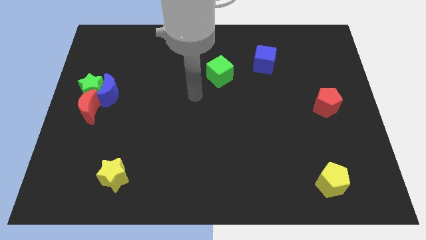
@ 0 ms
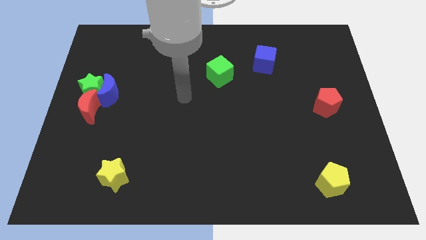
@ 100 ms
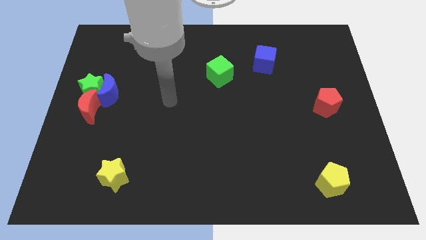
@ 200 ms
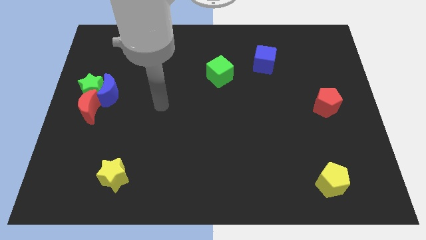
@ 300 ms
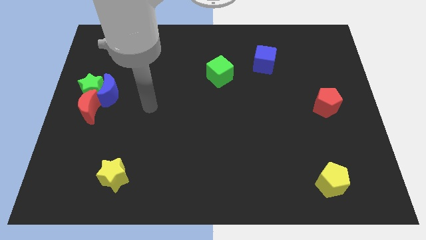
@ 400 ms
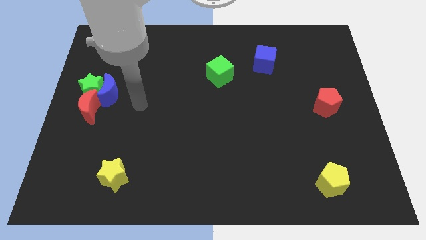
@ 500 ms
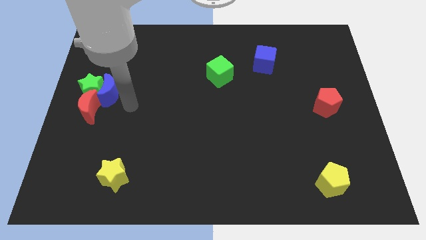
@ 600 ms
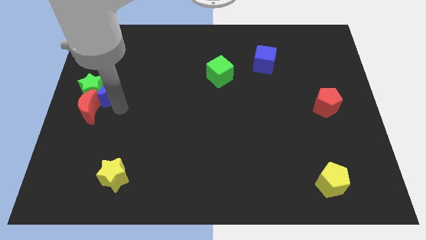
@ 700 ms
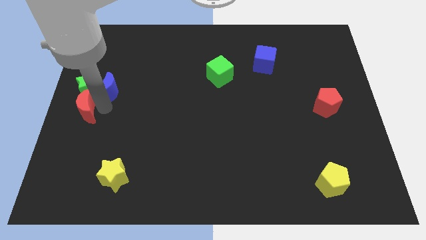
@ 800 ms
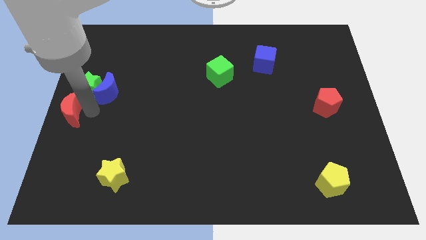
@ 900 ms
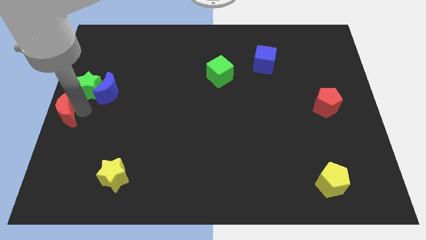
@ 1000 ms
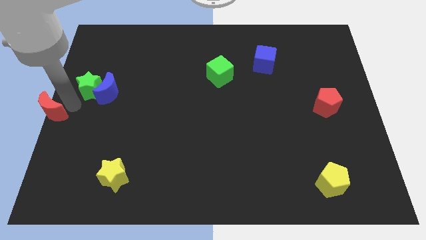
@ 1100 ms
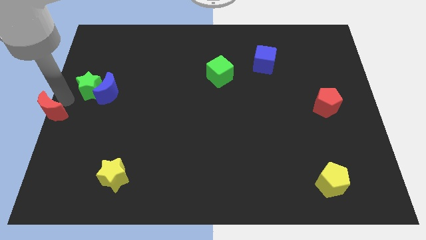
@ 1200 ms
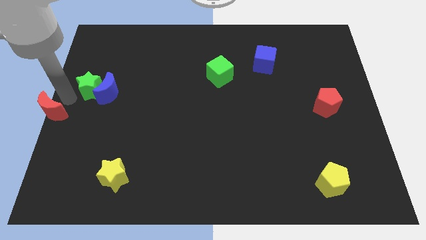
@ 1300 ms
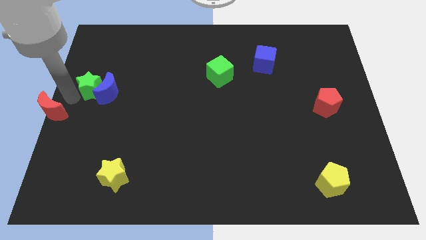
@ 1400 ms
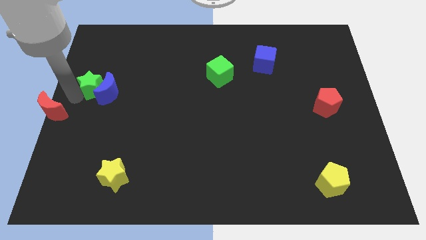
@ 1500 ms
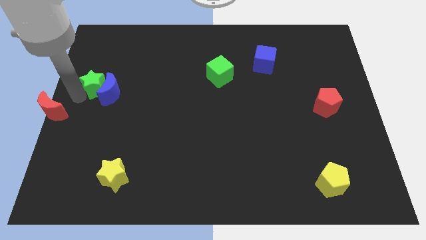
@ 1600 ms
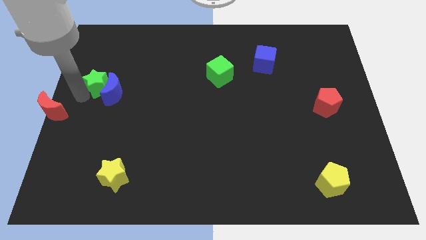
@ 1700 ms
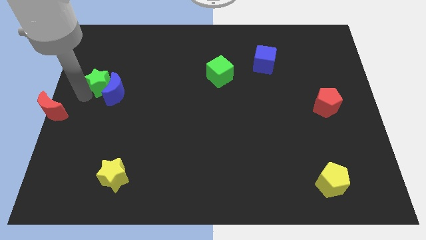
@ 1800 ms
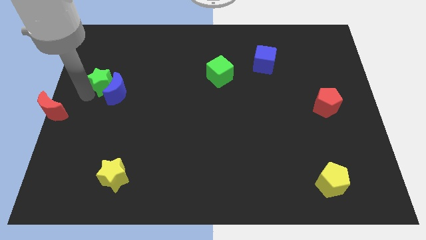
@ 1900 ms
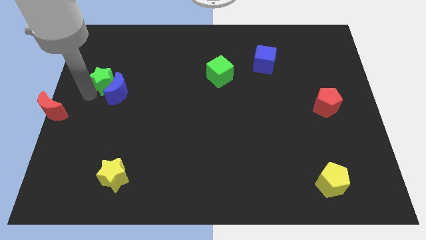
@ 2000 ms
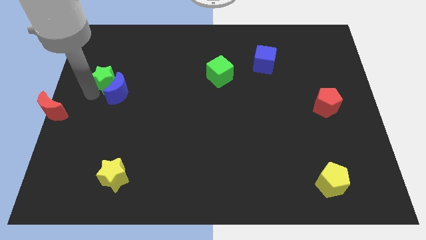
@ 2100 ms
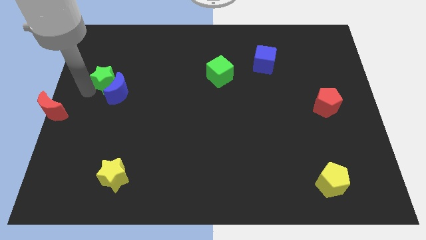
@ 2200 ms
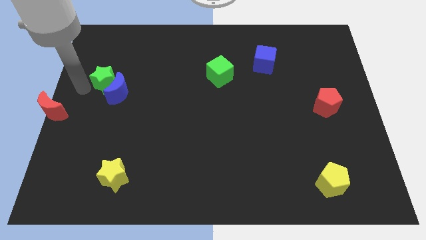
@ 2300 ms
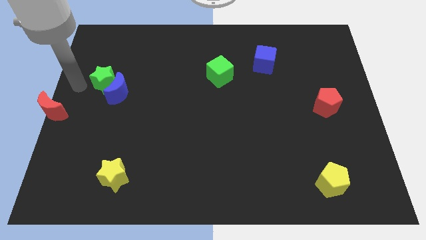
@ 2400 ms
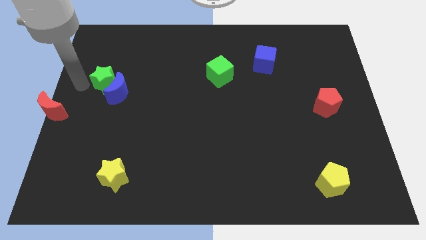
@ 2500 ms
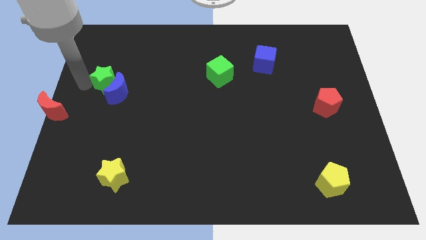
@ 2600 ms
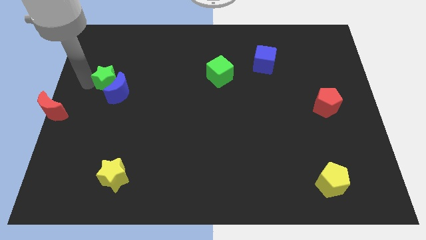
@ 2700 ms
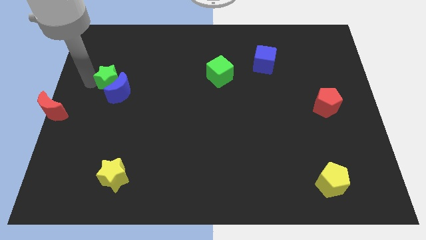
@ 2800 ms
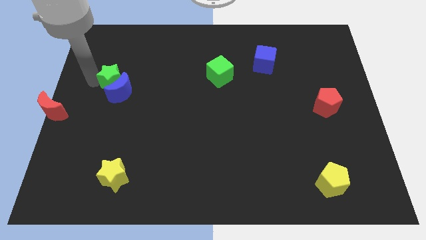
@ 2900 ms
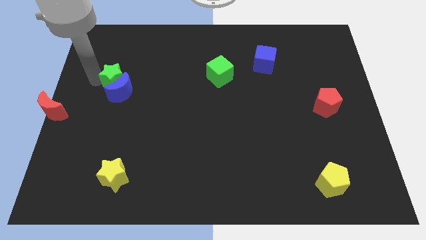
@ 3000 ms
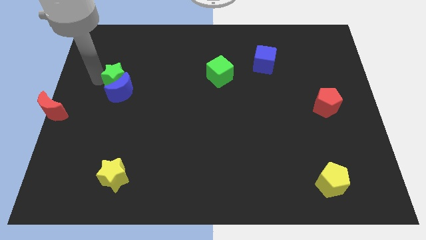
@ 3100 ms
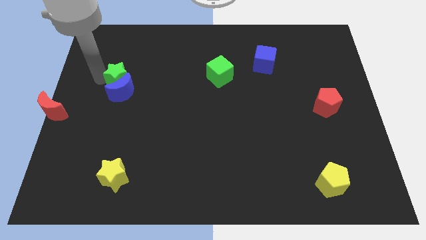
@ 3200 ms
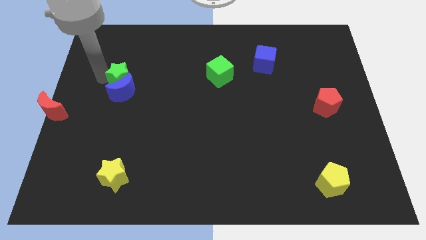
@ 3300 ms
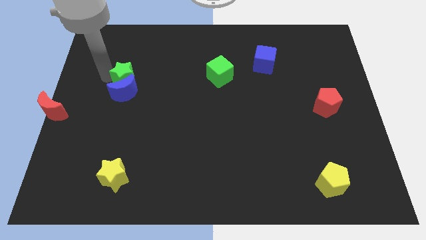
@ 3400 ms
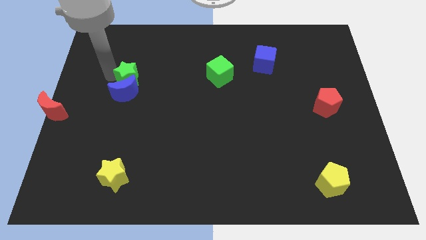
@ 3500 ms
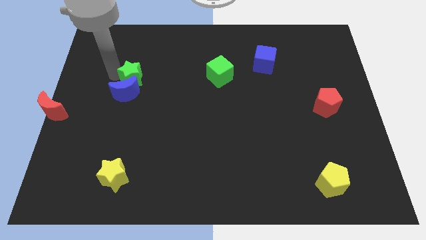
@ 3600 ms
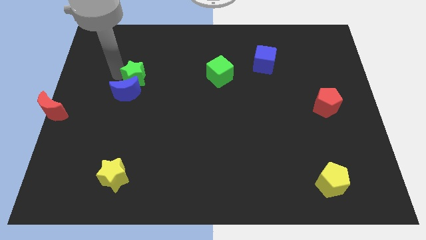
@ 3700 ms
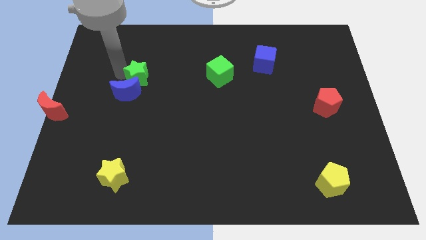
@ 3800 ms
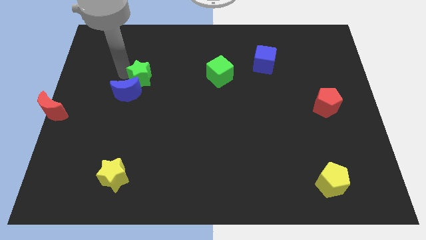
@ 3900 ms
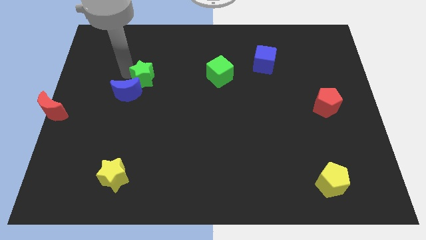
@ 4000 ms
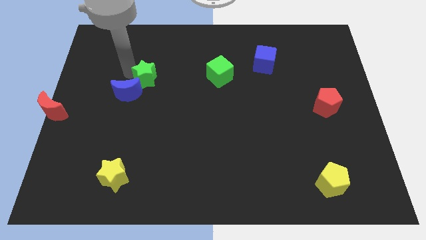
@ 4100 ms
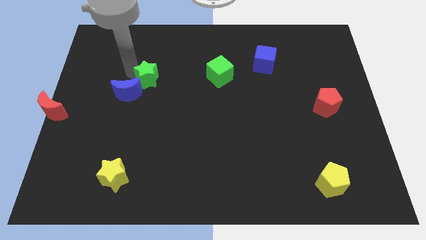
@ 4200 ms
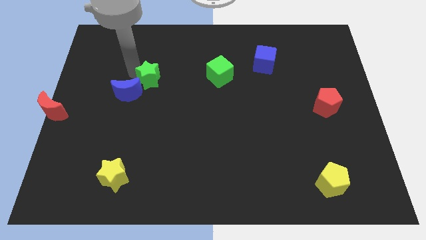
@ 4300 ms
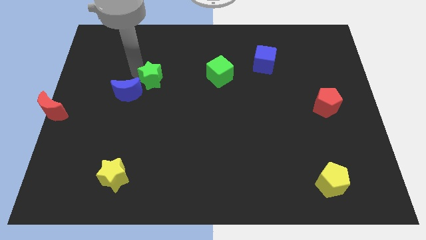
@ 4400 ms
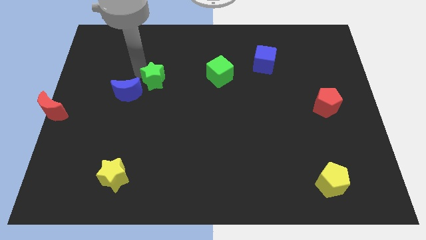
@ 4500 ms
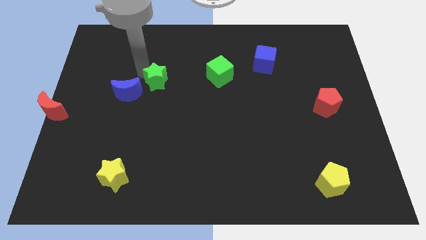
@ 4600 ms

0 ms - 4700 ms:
slide the green star left of the green cube

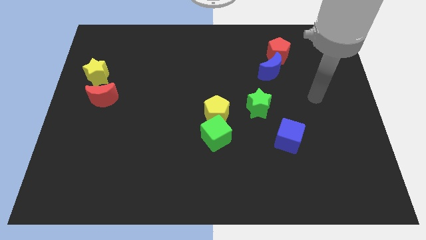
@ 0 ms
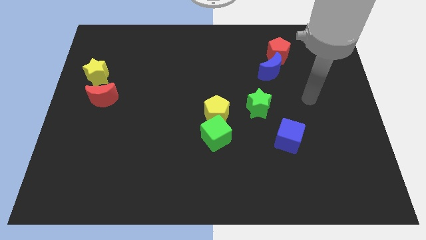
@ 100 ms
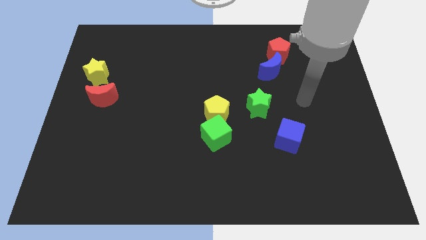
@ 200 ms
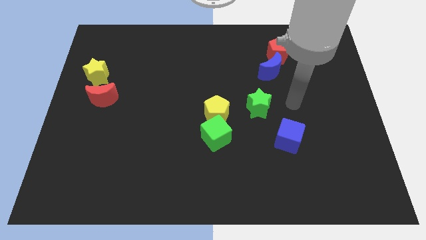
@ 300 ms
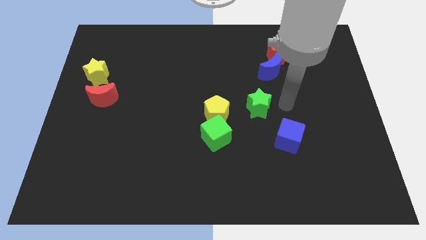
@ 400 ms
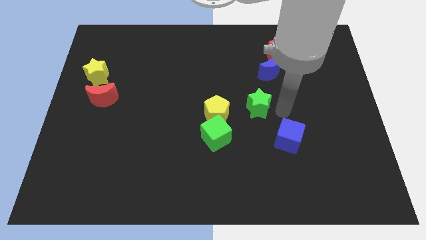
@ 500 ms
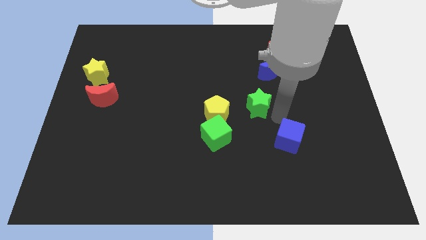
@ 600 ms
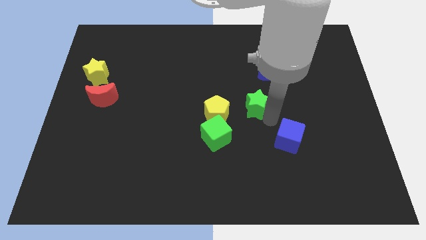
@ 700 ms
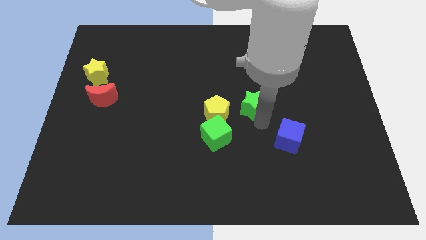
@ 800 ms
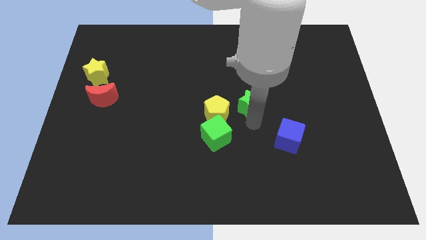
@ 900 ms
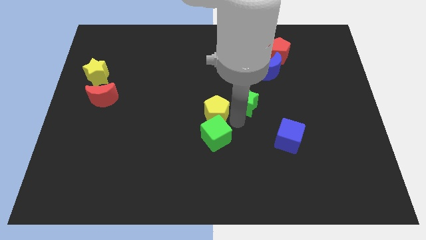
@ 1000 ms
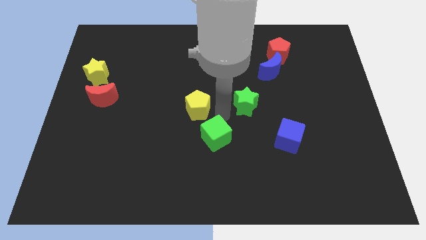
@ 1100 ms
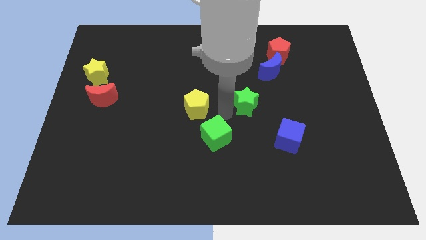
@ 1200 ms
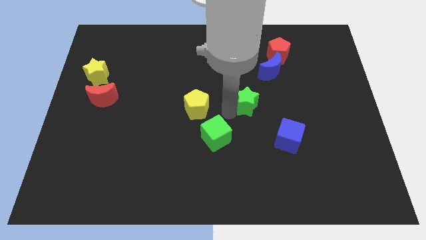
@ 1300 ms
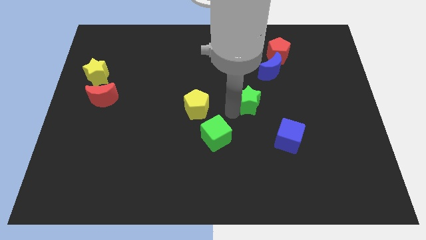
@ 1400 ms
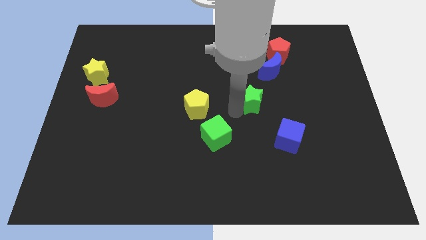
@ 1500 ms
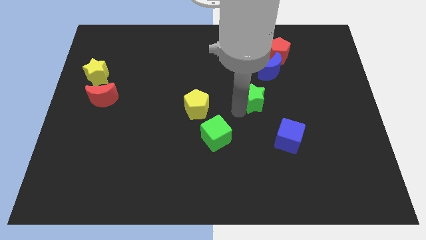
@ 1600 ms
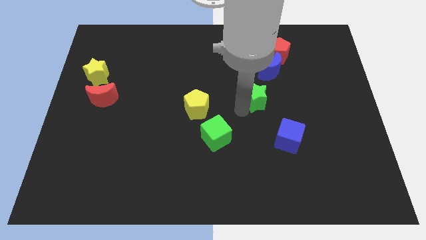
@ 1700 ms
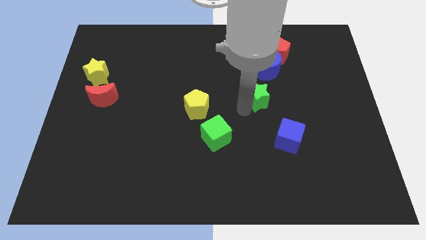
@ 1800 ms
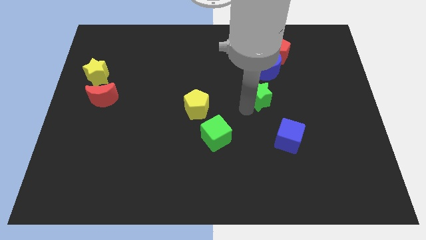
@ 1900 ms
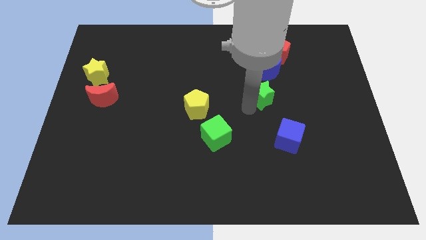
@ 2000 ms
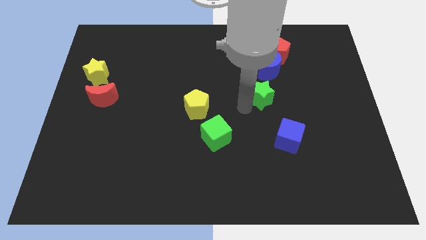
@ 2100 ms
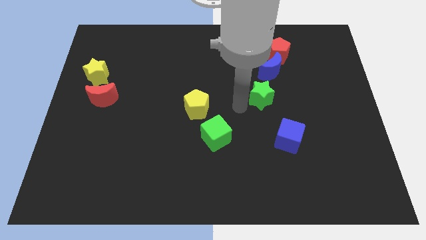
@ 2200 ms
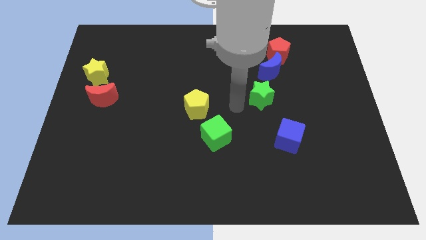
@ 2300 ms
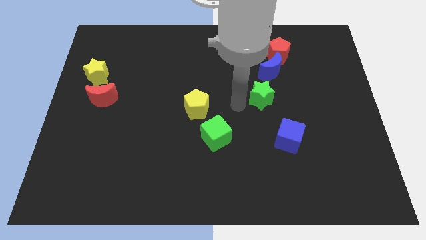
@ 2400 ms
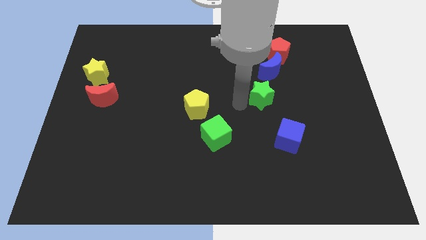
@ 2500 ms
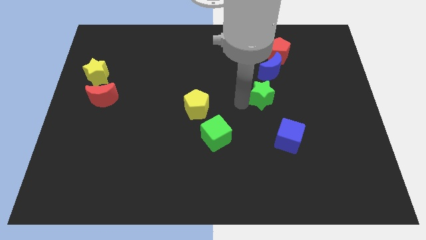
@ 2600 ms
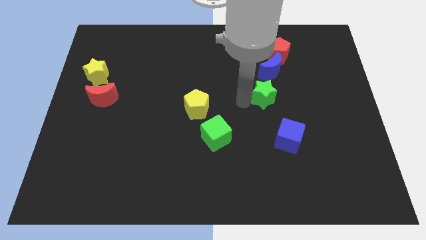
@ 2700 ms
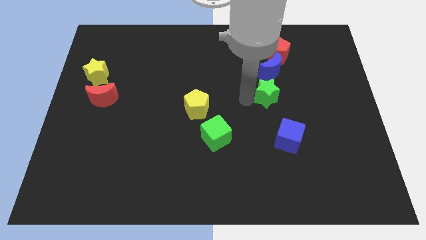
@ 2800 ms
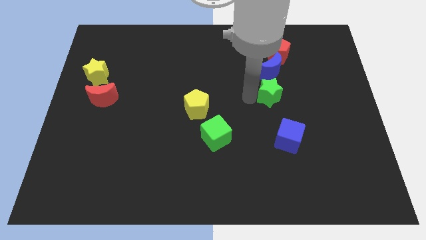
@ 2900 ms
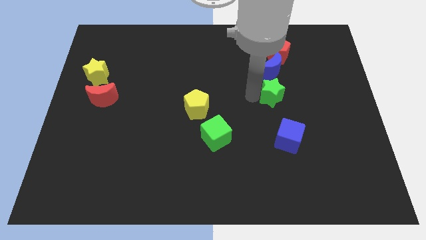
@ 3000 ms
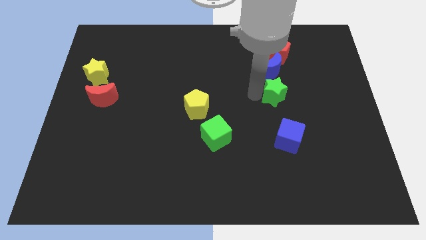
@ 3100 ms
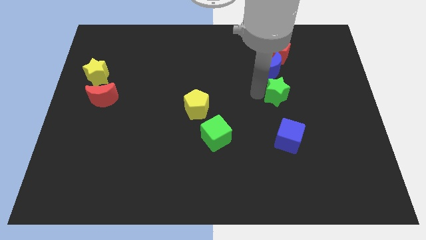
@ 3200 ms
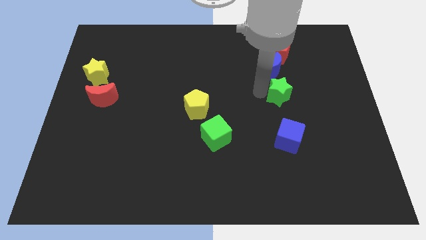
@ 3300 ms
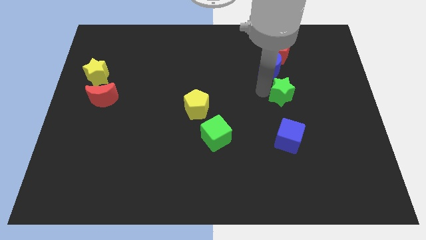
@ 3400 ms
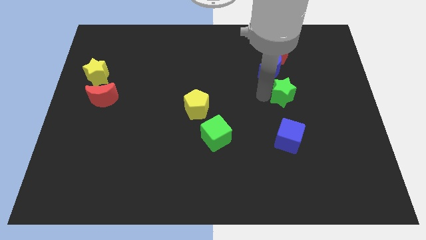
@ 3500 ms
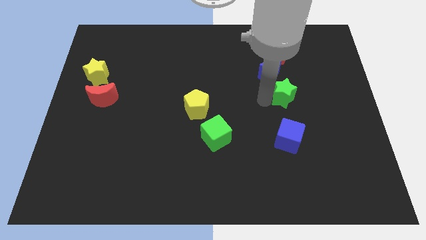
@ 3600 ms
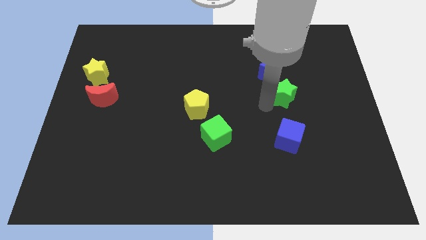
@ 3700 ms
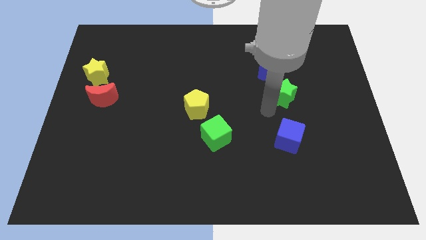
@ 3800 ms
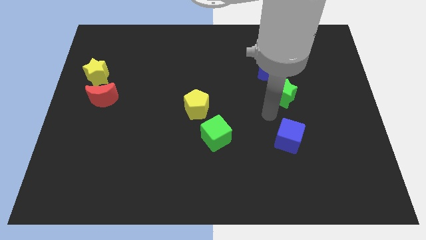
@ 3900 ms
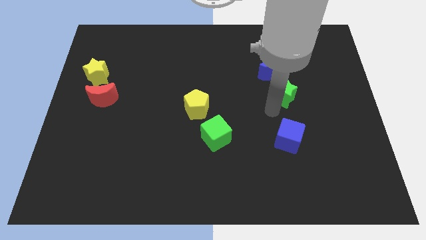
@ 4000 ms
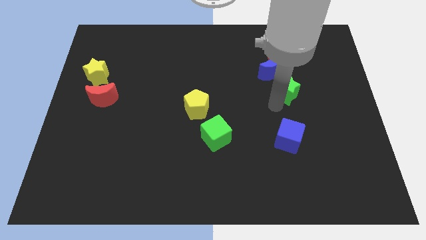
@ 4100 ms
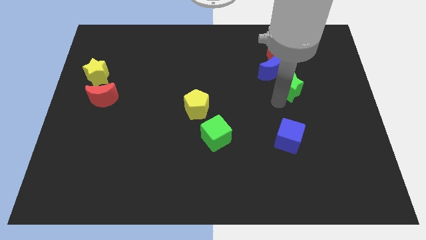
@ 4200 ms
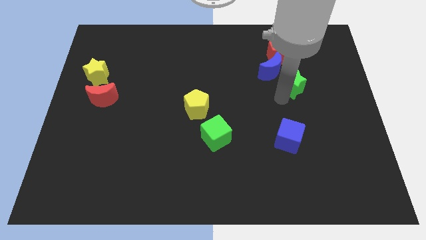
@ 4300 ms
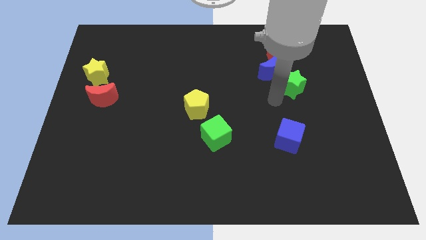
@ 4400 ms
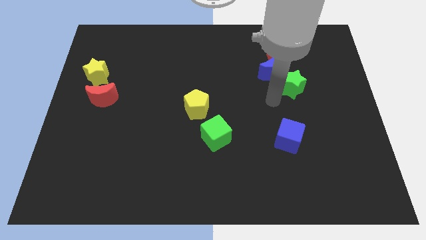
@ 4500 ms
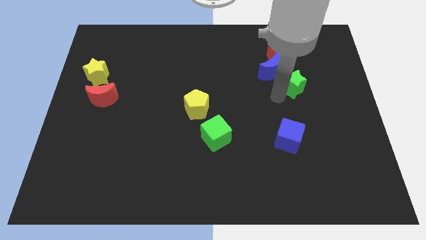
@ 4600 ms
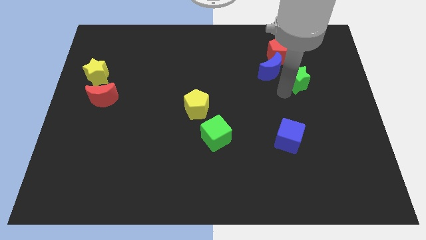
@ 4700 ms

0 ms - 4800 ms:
put the green star to the right of the blue moon
